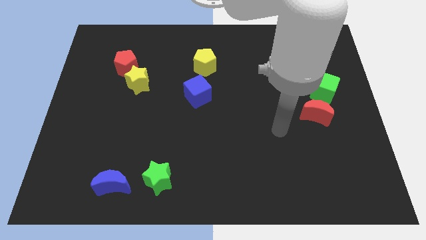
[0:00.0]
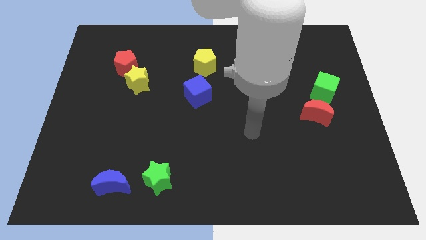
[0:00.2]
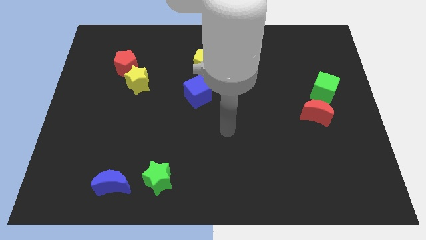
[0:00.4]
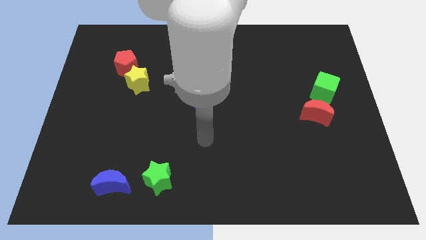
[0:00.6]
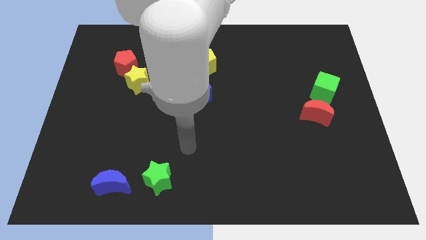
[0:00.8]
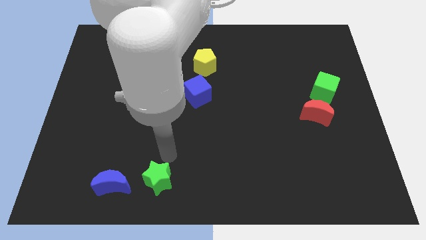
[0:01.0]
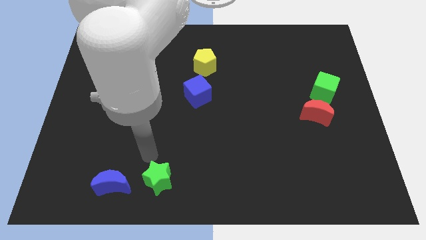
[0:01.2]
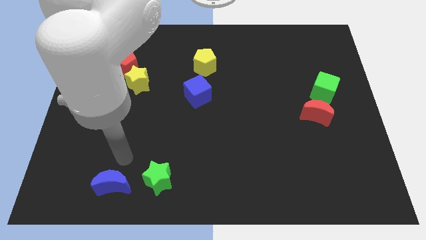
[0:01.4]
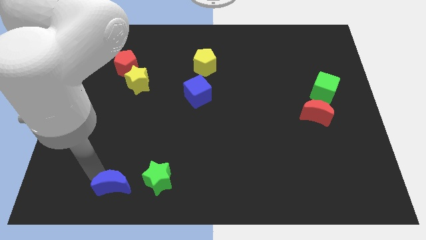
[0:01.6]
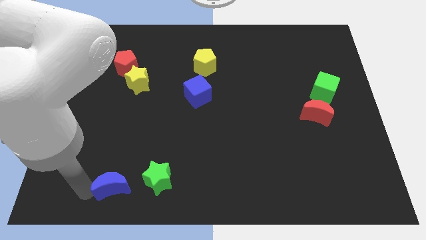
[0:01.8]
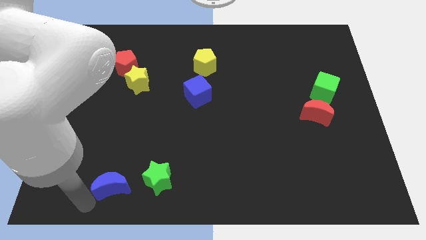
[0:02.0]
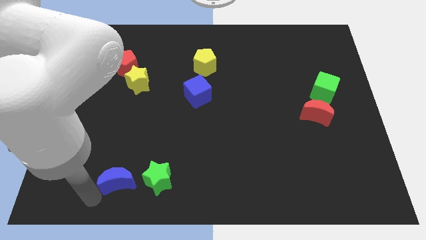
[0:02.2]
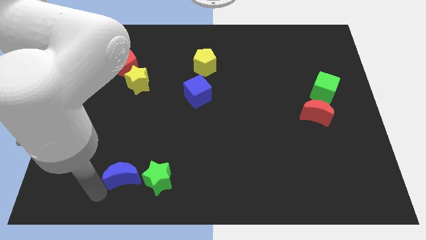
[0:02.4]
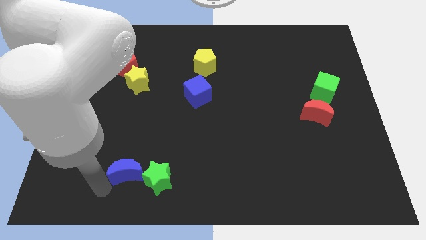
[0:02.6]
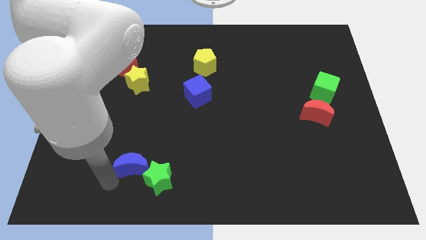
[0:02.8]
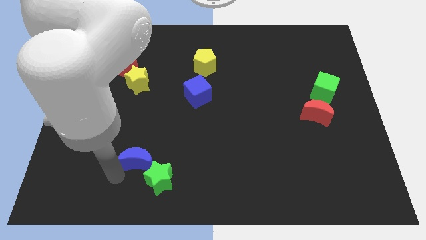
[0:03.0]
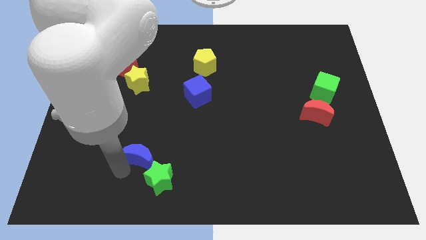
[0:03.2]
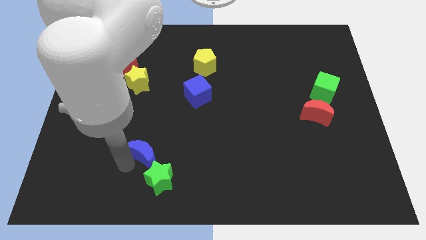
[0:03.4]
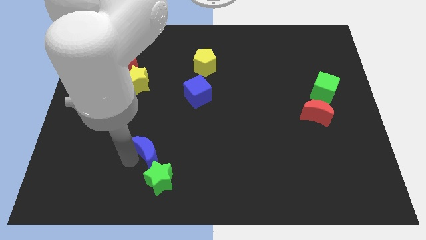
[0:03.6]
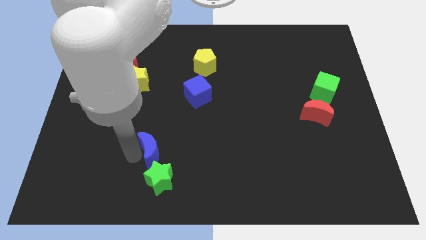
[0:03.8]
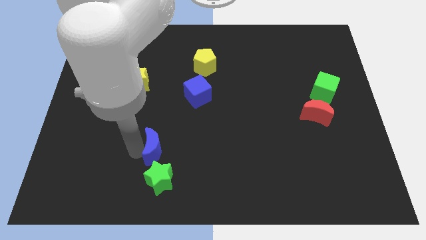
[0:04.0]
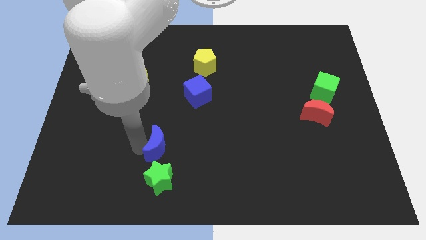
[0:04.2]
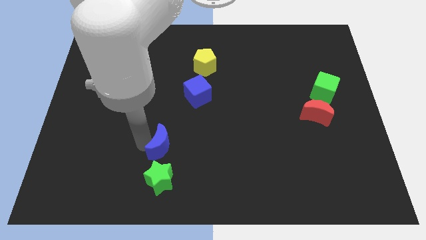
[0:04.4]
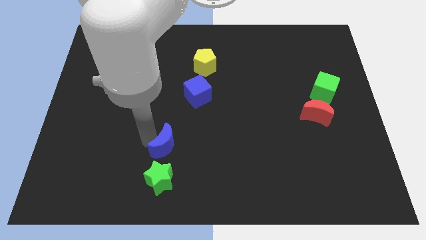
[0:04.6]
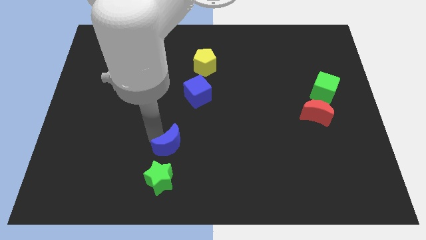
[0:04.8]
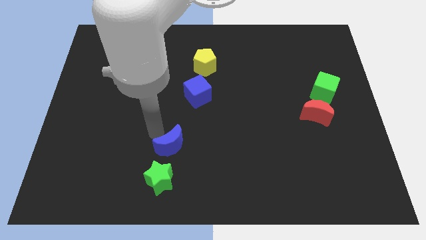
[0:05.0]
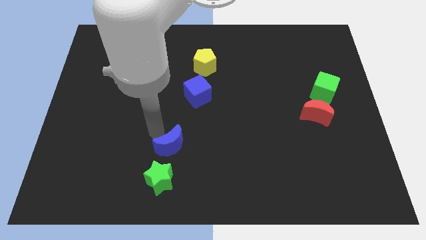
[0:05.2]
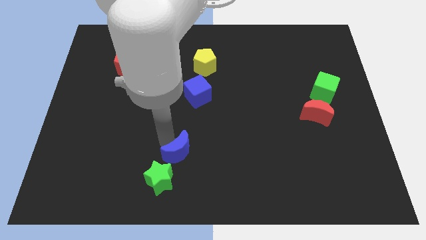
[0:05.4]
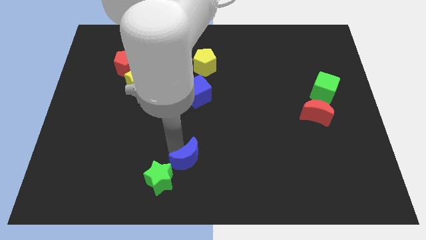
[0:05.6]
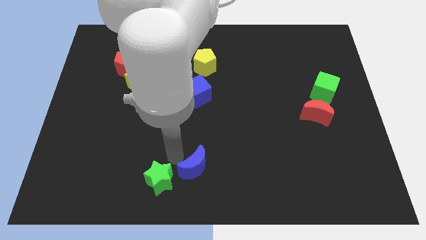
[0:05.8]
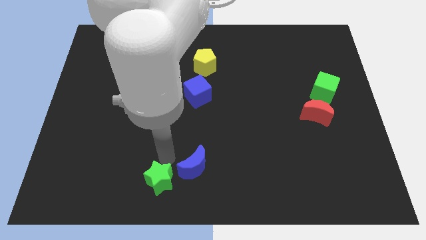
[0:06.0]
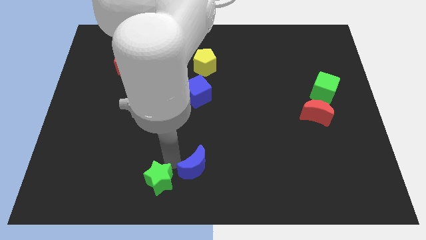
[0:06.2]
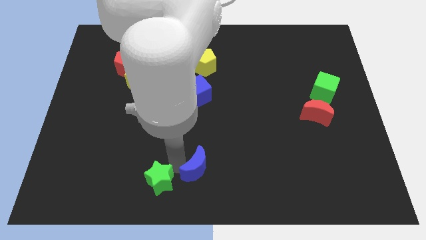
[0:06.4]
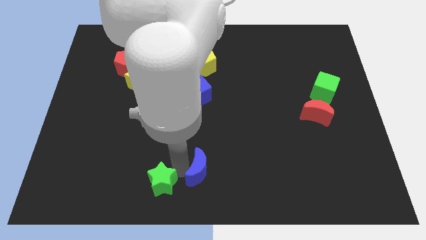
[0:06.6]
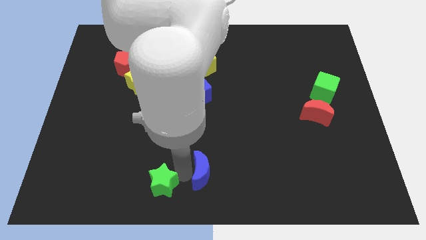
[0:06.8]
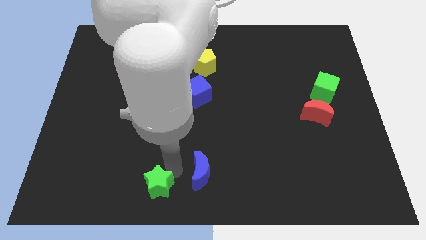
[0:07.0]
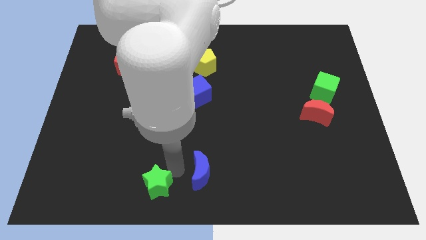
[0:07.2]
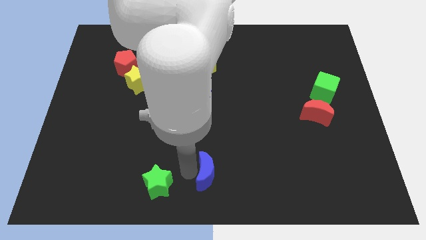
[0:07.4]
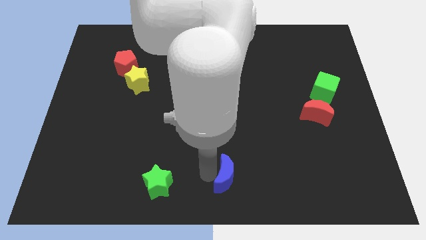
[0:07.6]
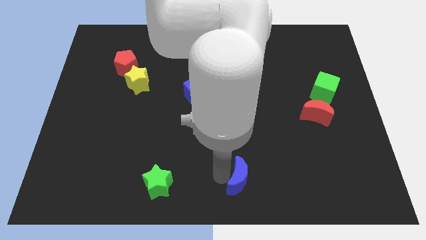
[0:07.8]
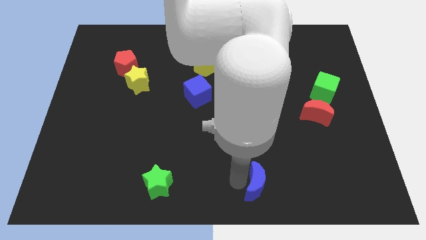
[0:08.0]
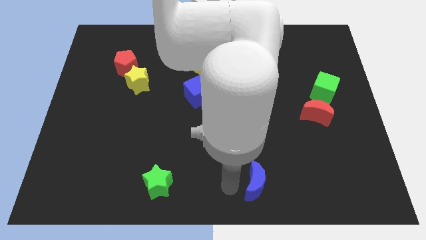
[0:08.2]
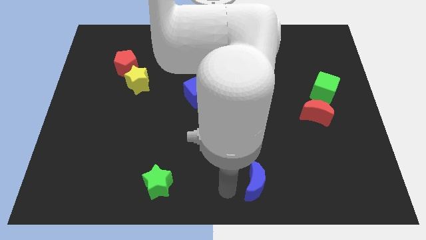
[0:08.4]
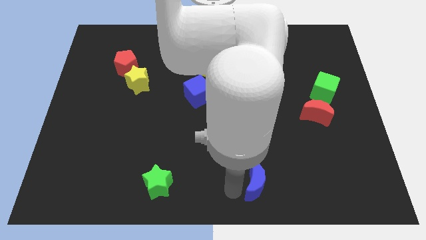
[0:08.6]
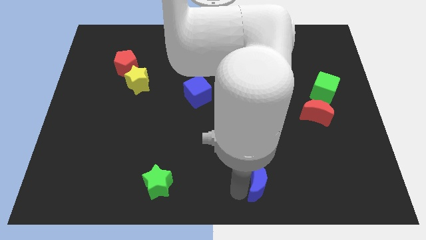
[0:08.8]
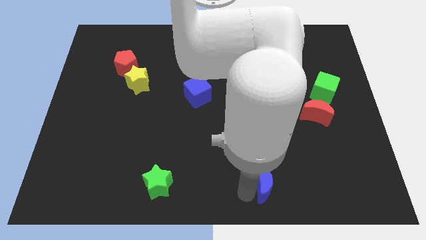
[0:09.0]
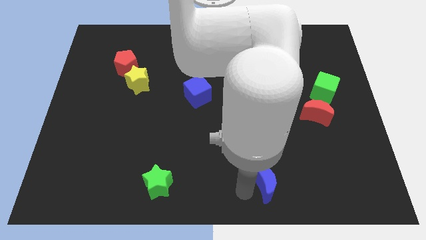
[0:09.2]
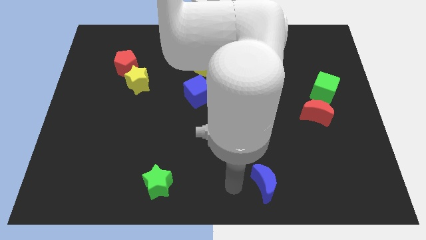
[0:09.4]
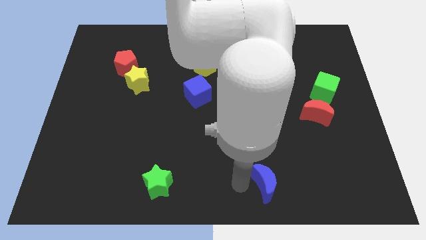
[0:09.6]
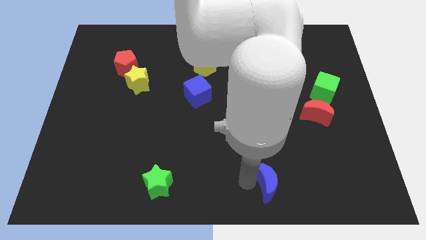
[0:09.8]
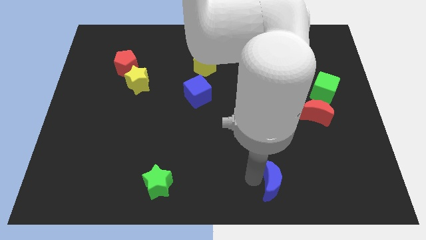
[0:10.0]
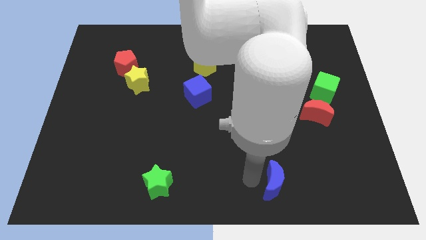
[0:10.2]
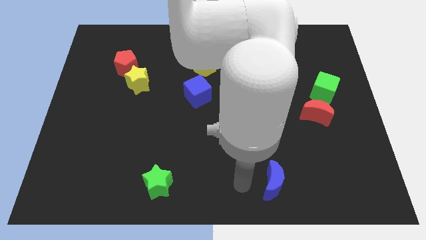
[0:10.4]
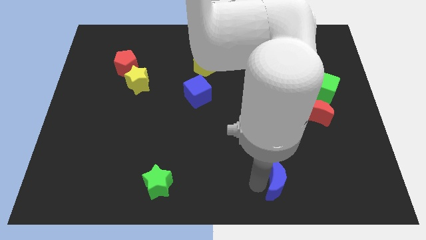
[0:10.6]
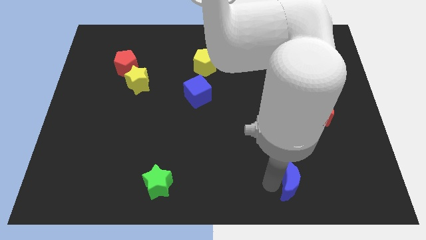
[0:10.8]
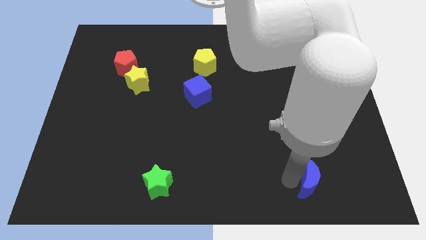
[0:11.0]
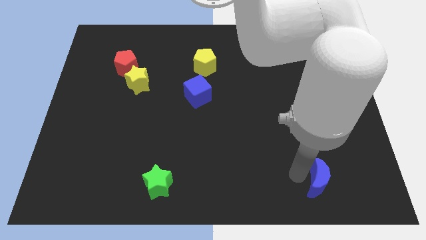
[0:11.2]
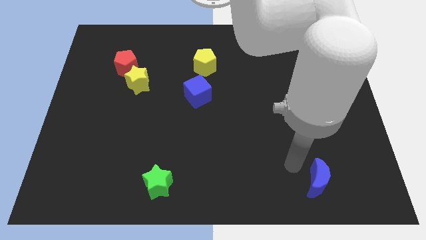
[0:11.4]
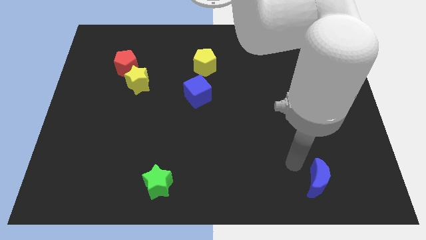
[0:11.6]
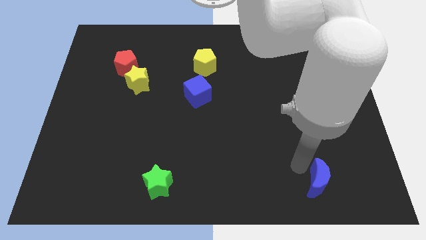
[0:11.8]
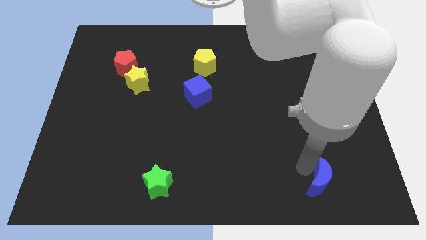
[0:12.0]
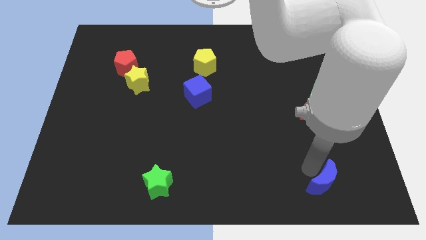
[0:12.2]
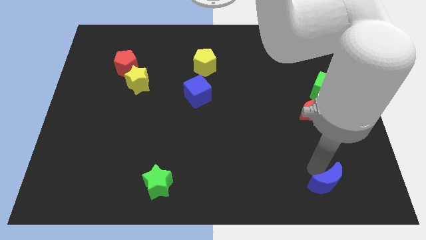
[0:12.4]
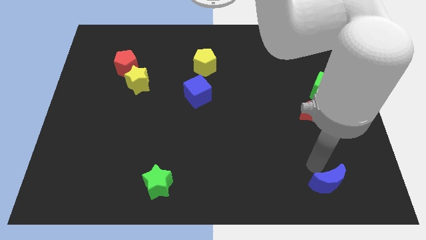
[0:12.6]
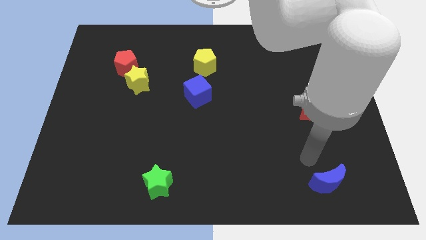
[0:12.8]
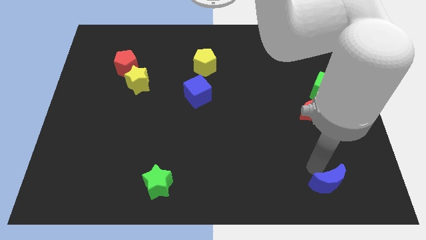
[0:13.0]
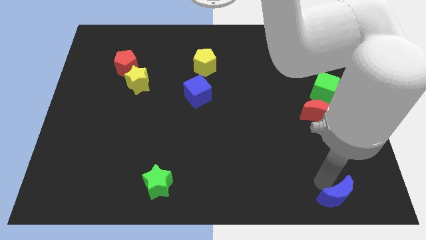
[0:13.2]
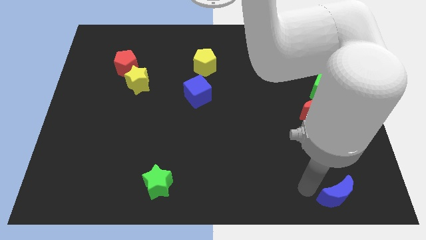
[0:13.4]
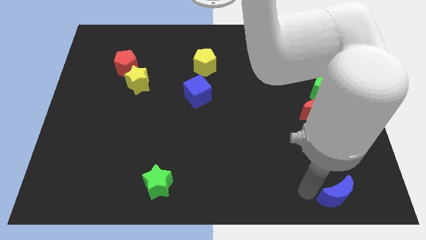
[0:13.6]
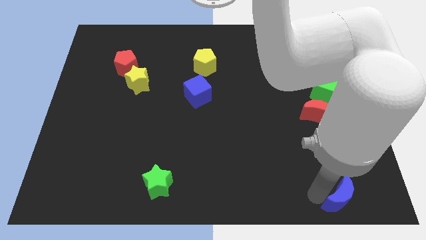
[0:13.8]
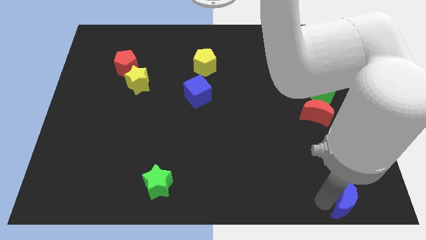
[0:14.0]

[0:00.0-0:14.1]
slide the blue moon to the bottom right corner

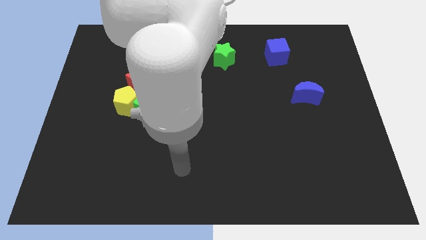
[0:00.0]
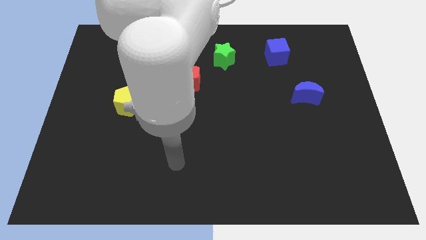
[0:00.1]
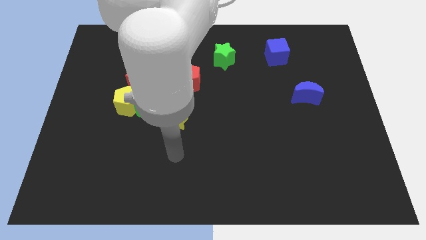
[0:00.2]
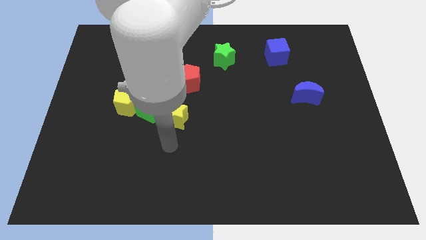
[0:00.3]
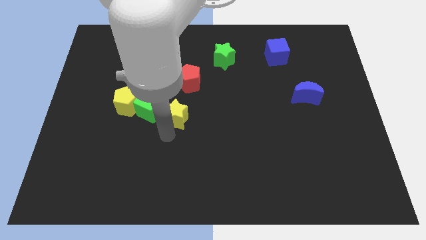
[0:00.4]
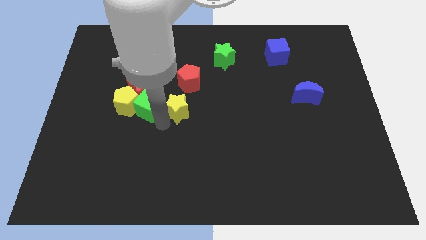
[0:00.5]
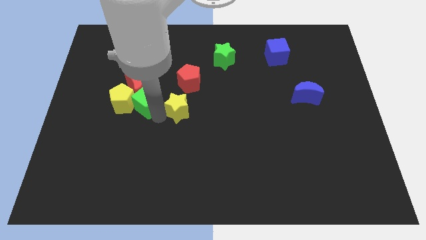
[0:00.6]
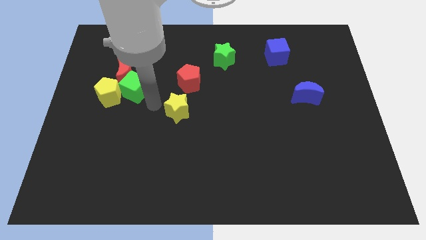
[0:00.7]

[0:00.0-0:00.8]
push the yellow pentagon to the left side
